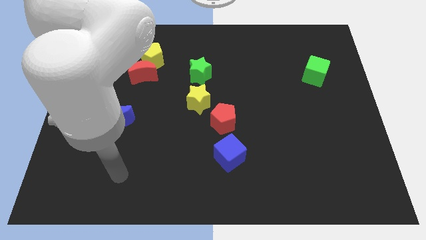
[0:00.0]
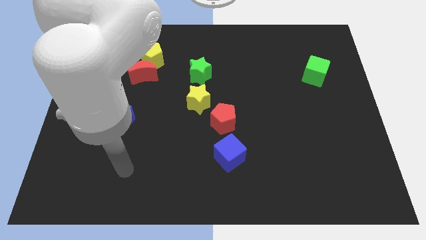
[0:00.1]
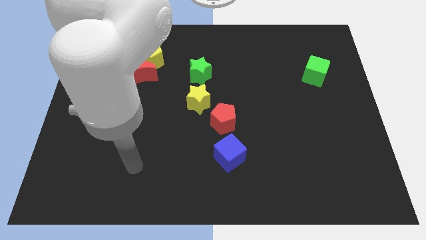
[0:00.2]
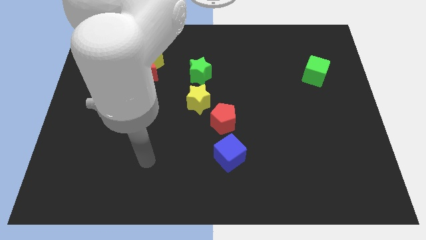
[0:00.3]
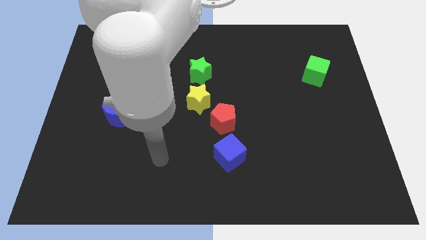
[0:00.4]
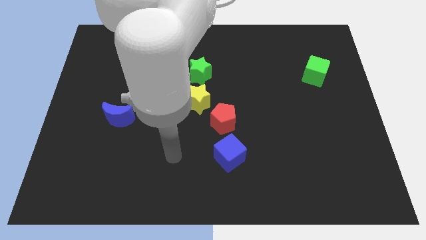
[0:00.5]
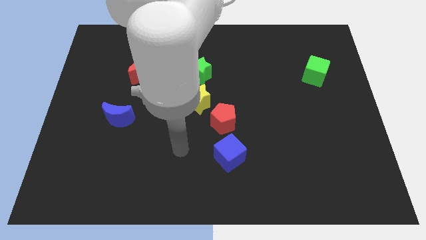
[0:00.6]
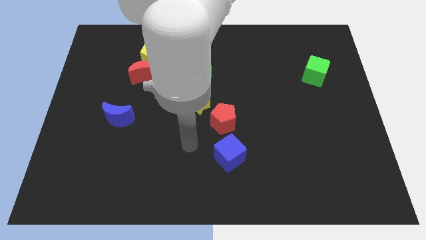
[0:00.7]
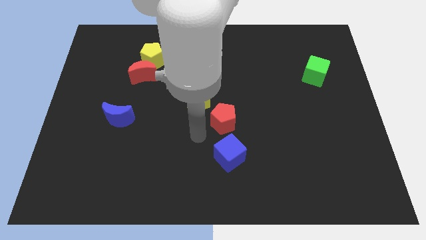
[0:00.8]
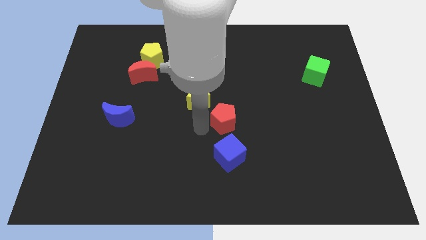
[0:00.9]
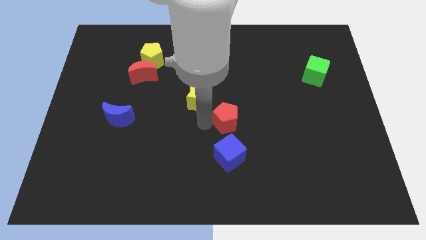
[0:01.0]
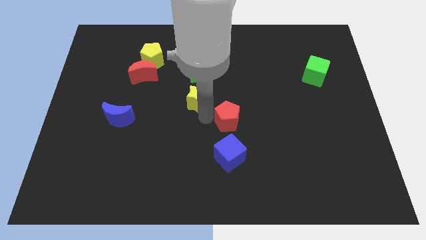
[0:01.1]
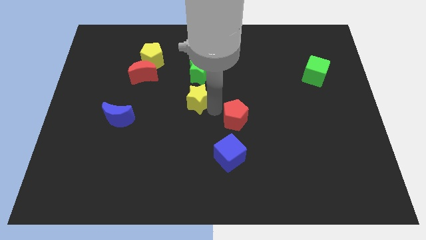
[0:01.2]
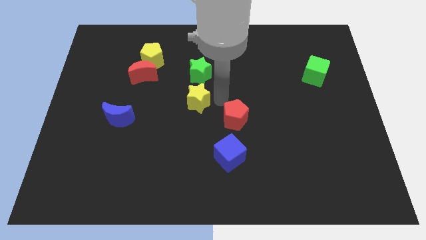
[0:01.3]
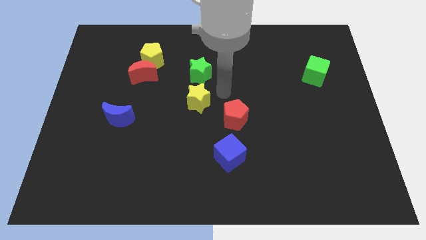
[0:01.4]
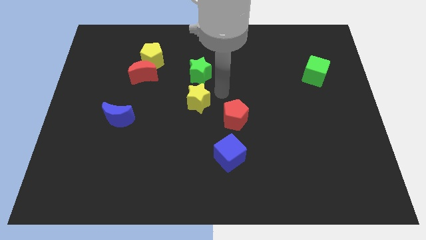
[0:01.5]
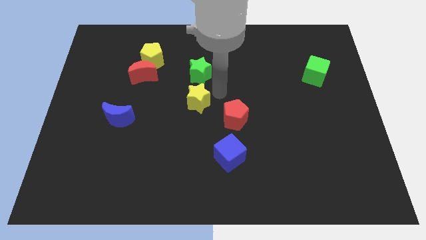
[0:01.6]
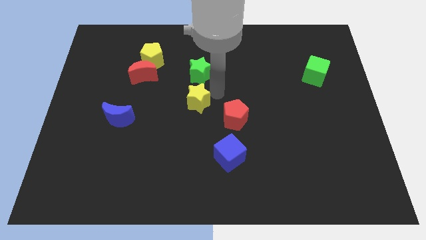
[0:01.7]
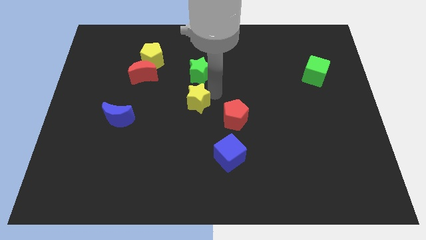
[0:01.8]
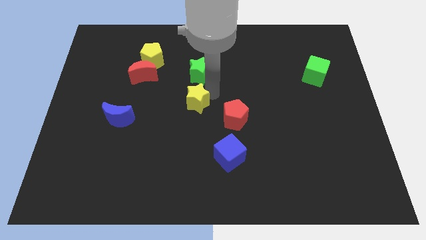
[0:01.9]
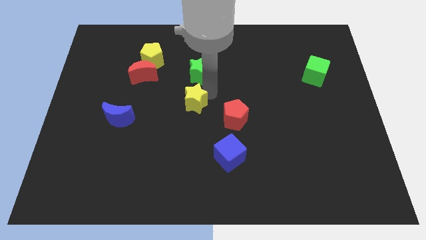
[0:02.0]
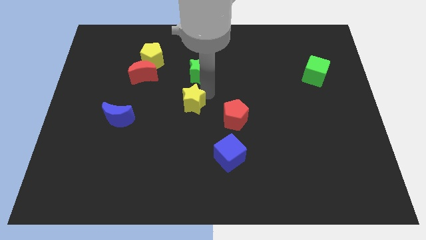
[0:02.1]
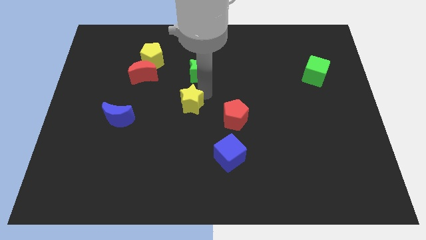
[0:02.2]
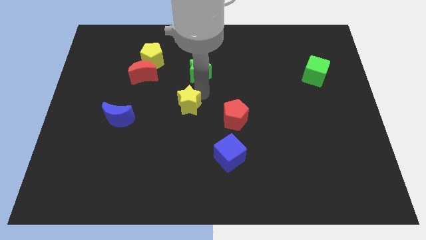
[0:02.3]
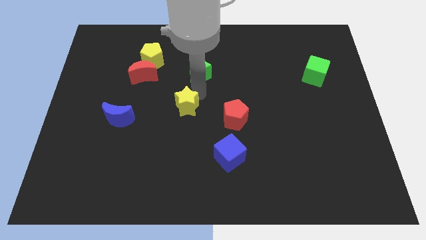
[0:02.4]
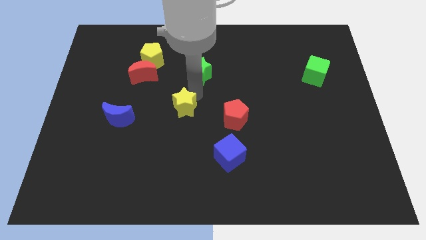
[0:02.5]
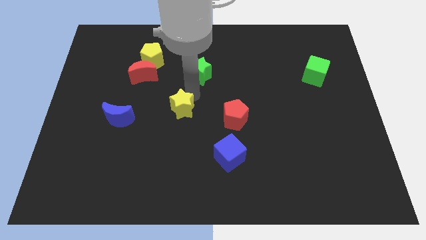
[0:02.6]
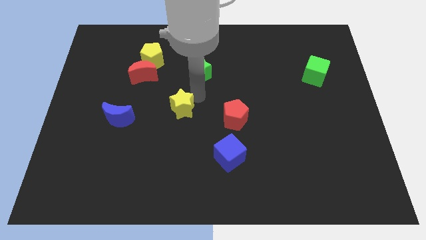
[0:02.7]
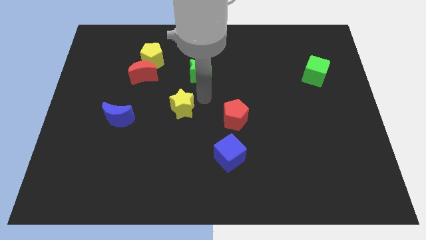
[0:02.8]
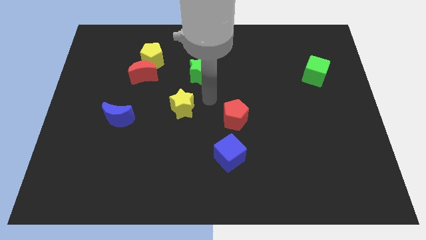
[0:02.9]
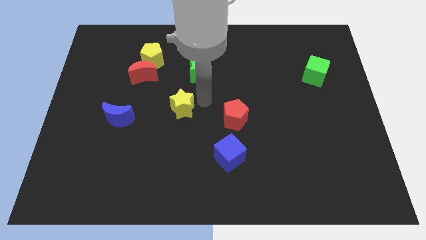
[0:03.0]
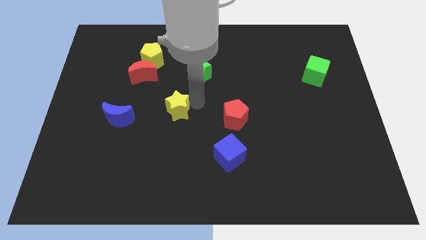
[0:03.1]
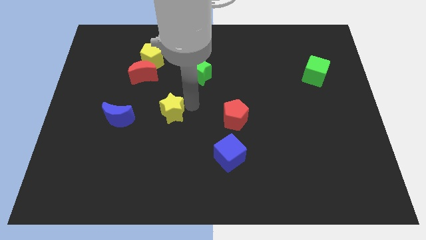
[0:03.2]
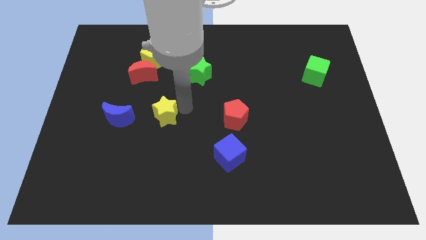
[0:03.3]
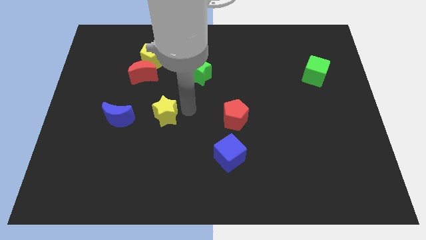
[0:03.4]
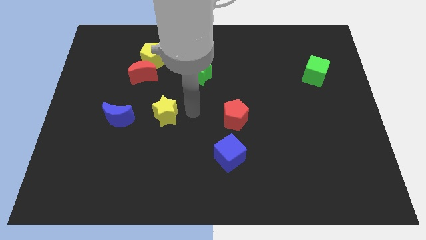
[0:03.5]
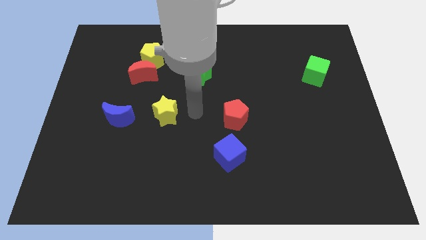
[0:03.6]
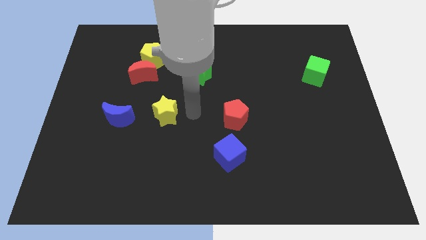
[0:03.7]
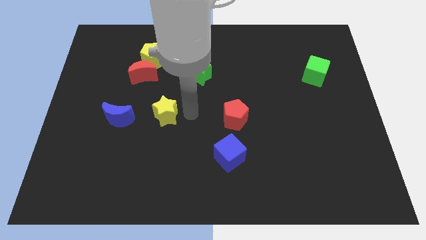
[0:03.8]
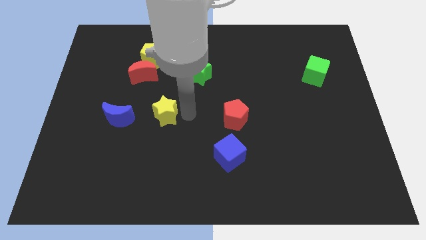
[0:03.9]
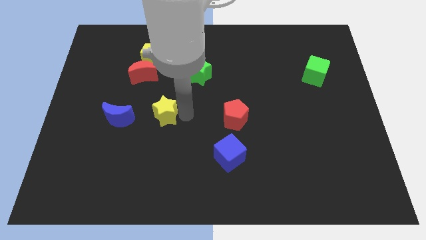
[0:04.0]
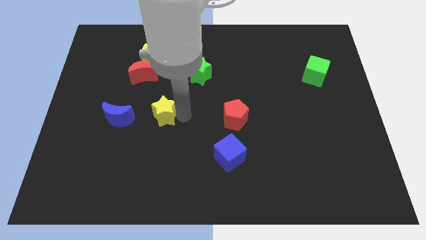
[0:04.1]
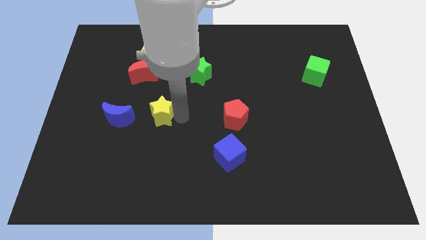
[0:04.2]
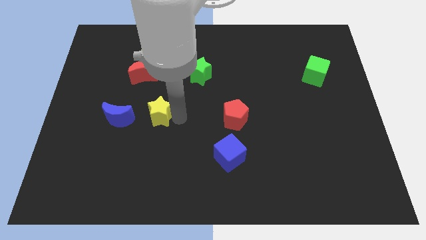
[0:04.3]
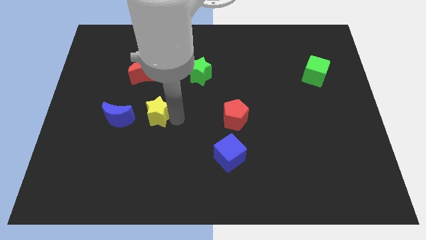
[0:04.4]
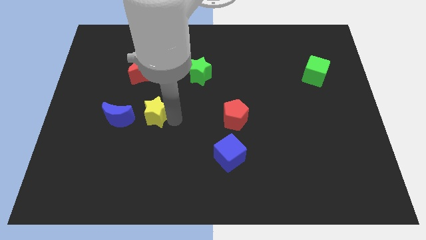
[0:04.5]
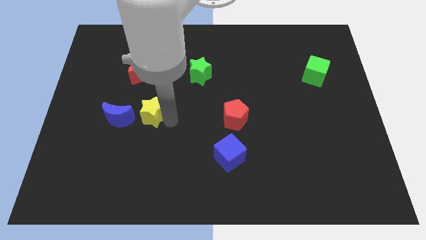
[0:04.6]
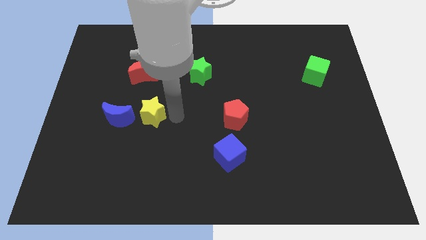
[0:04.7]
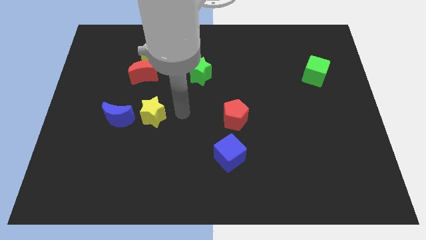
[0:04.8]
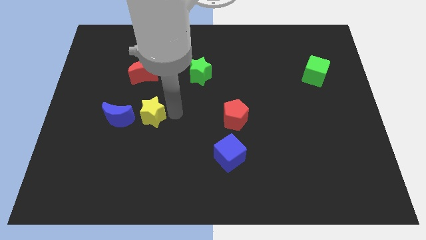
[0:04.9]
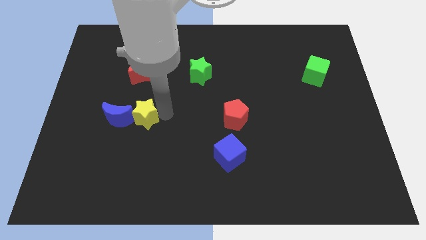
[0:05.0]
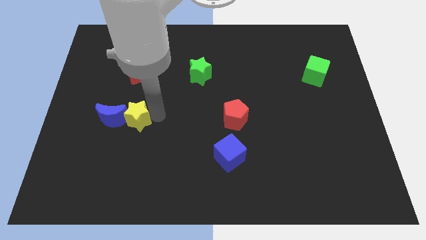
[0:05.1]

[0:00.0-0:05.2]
slide the yellow star close to the blue moon

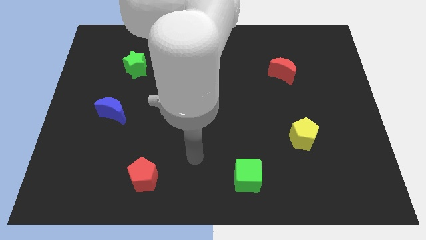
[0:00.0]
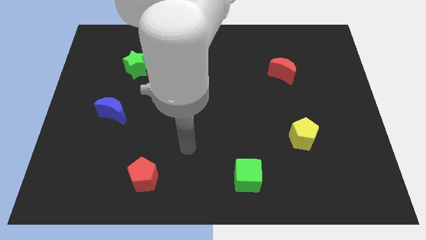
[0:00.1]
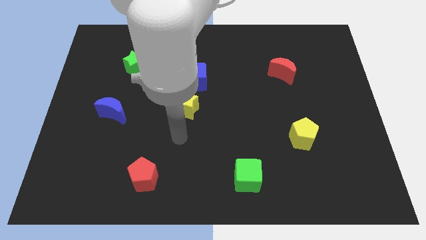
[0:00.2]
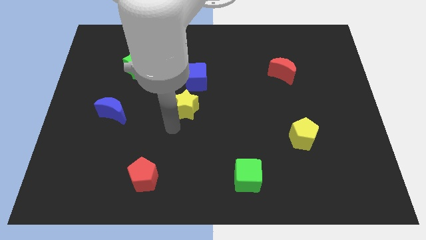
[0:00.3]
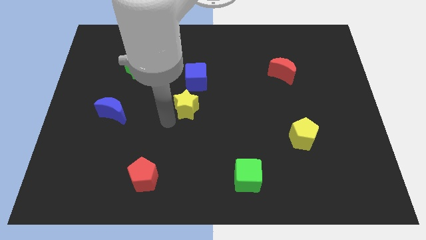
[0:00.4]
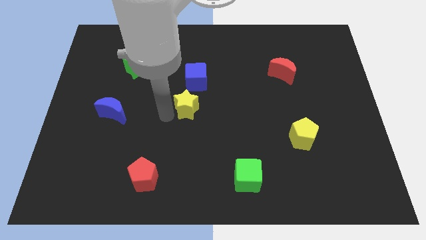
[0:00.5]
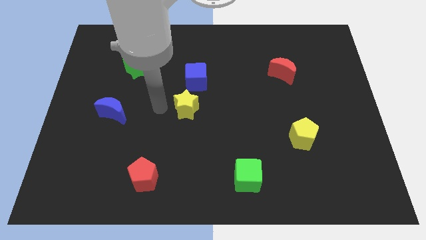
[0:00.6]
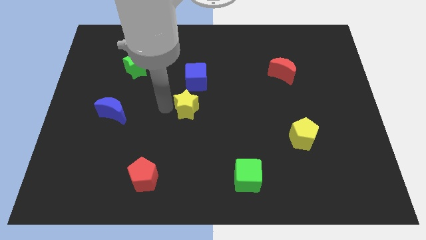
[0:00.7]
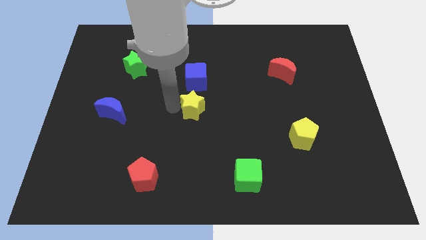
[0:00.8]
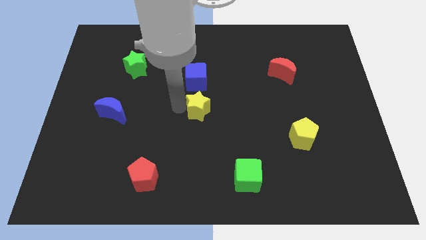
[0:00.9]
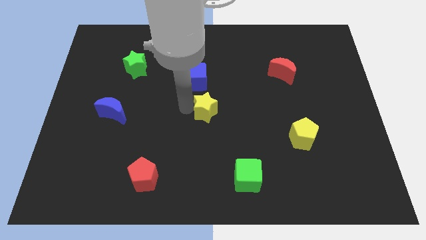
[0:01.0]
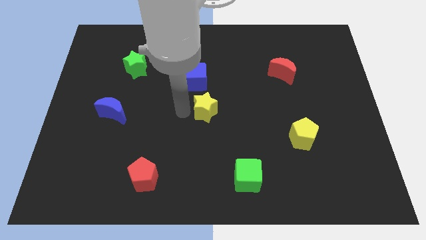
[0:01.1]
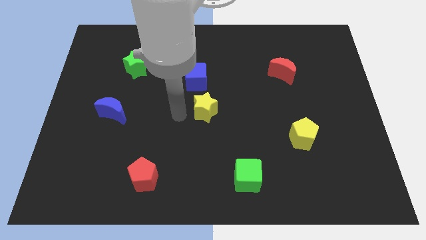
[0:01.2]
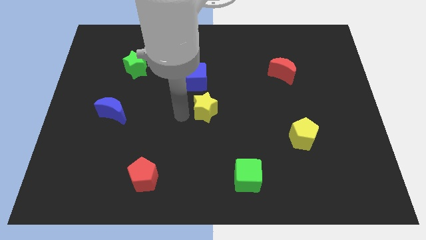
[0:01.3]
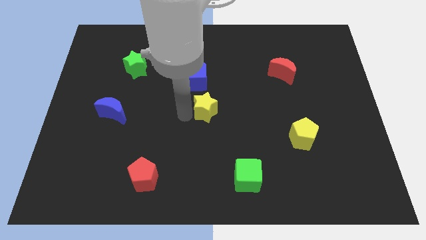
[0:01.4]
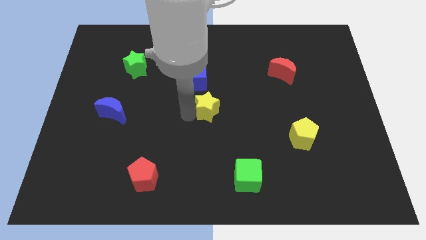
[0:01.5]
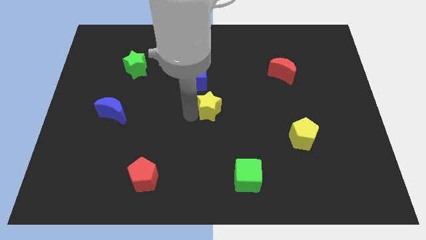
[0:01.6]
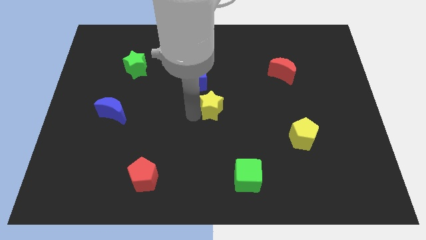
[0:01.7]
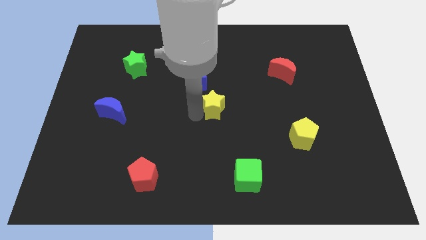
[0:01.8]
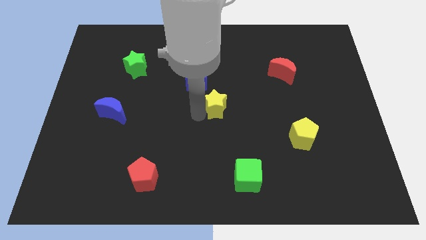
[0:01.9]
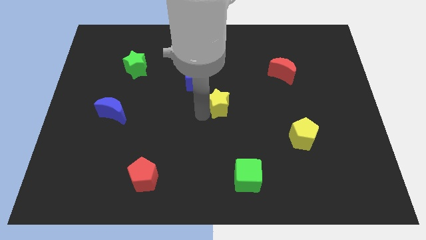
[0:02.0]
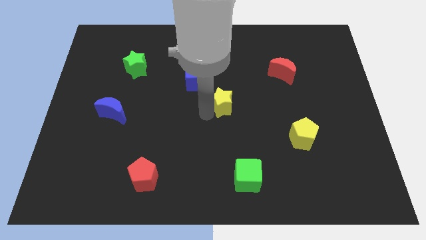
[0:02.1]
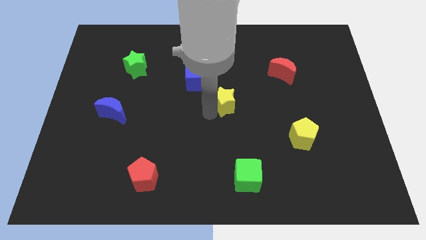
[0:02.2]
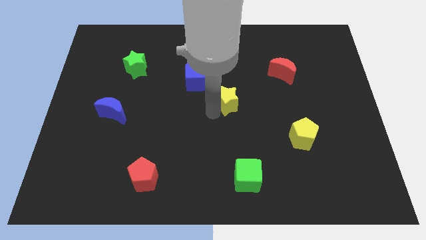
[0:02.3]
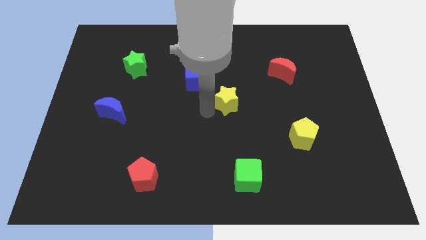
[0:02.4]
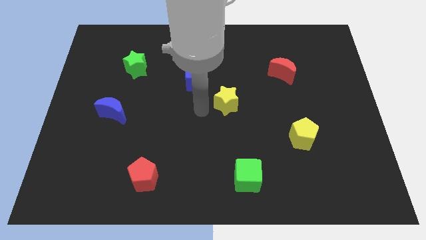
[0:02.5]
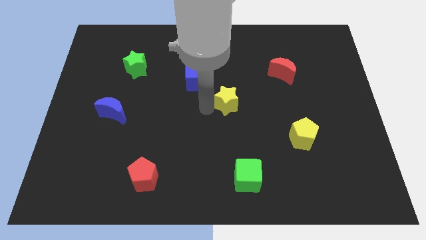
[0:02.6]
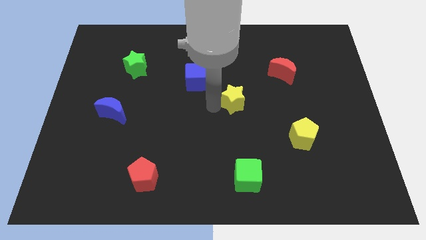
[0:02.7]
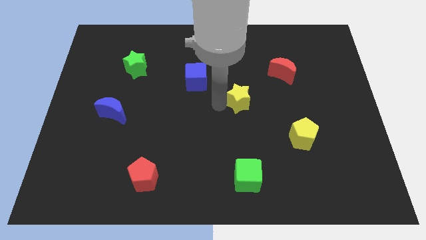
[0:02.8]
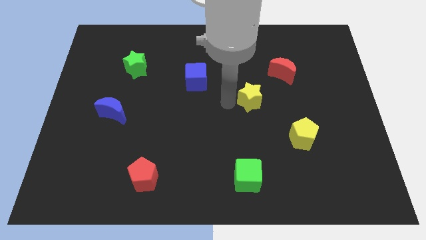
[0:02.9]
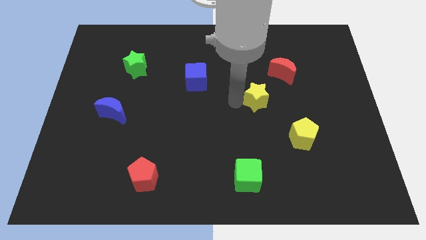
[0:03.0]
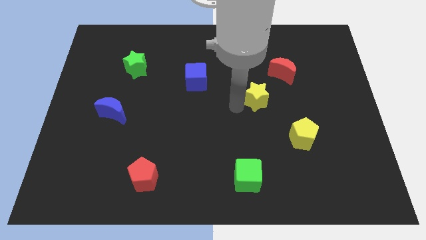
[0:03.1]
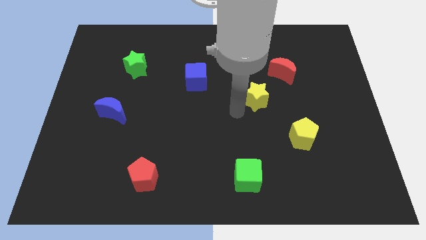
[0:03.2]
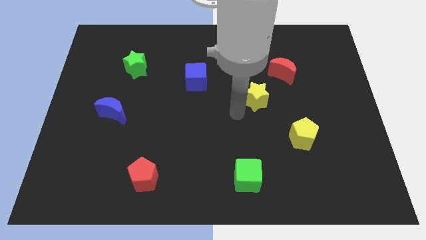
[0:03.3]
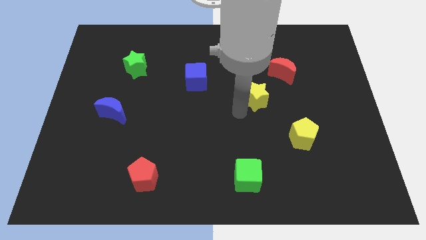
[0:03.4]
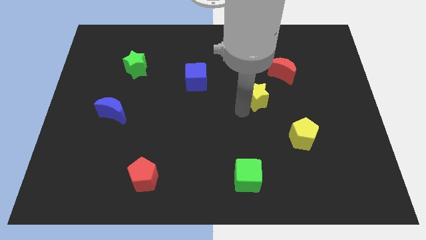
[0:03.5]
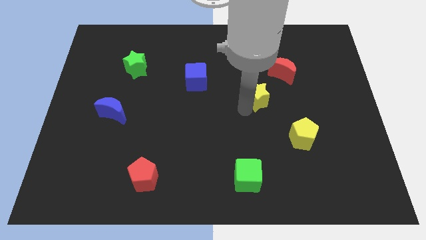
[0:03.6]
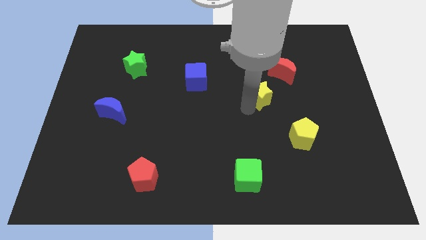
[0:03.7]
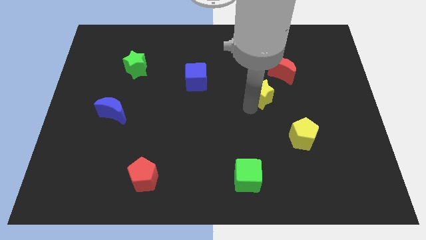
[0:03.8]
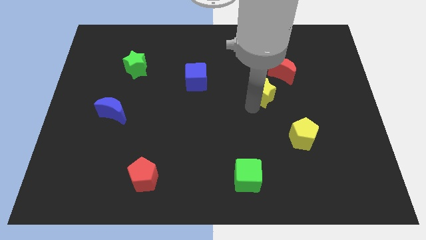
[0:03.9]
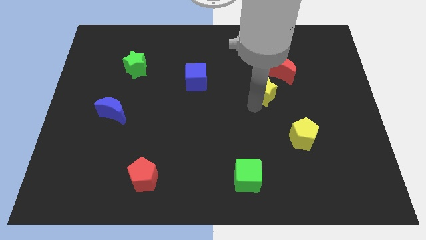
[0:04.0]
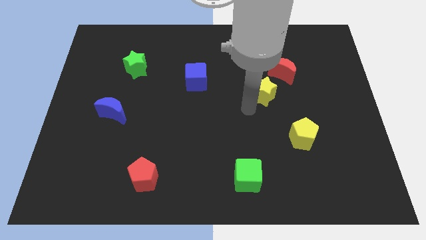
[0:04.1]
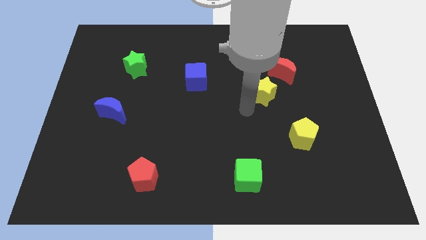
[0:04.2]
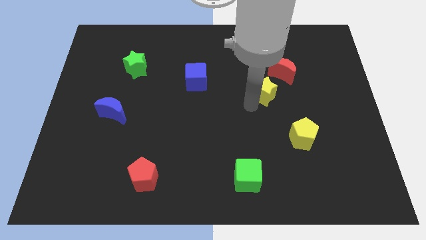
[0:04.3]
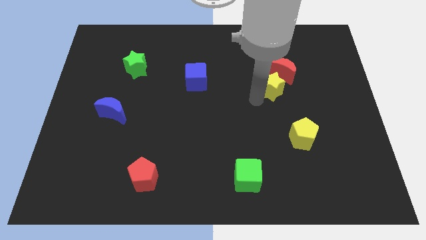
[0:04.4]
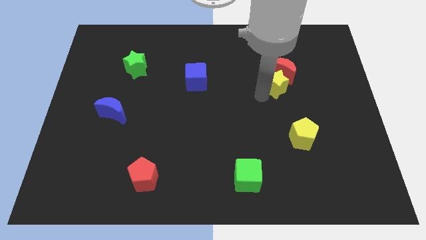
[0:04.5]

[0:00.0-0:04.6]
move the yellow star close to the red moon
